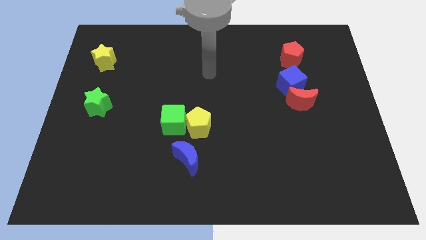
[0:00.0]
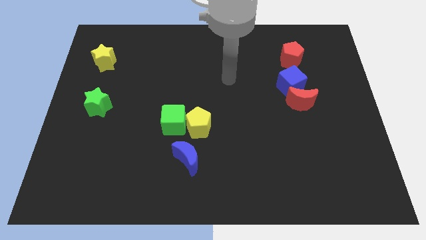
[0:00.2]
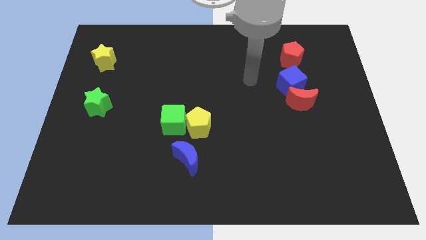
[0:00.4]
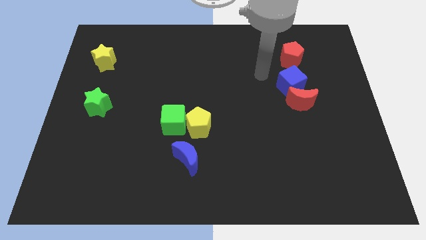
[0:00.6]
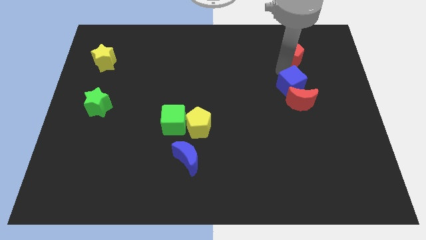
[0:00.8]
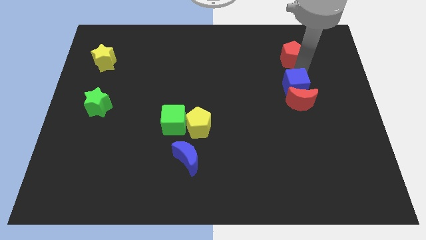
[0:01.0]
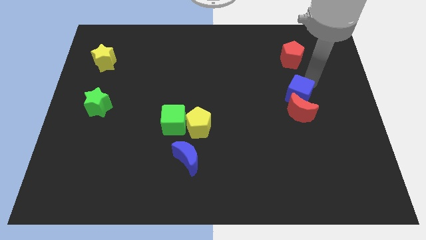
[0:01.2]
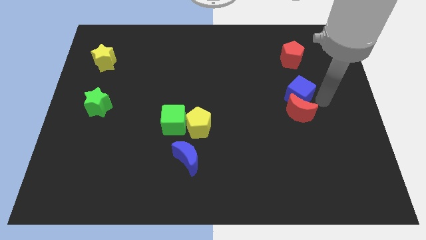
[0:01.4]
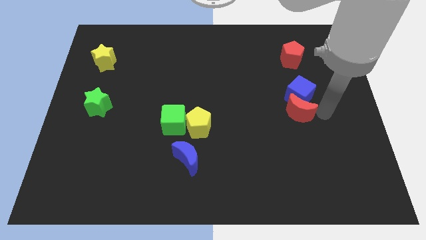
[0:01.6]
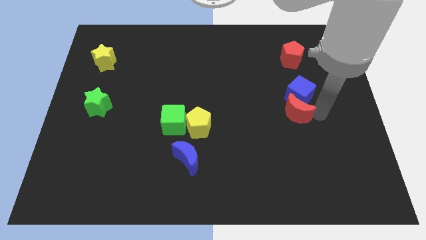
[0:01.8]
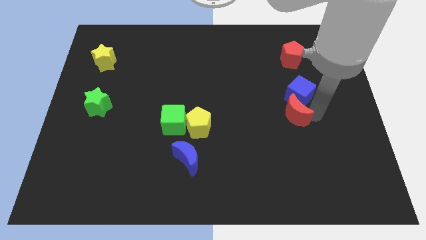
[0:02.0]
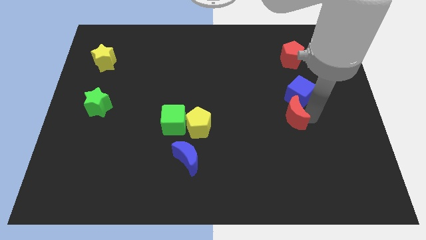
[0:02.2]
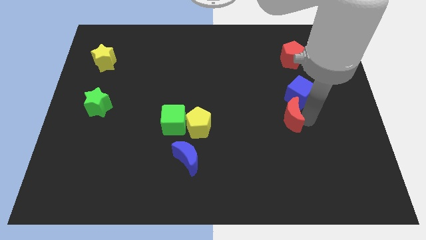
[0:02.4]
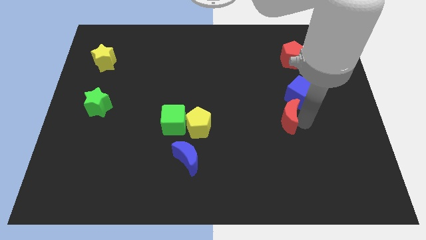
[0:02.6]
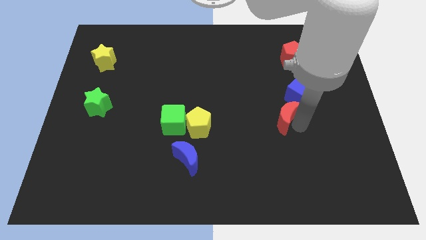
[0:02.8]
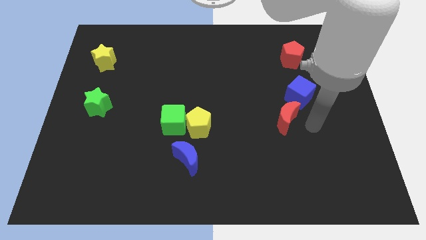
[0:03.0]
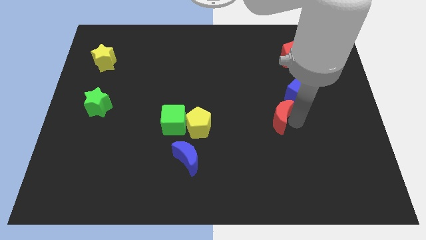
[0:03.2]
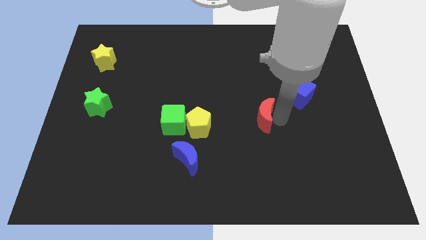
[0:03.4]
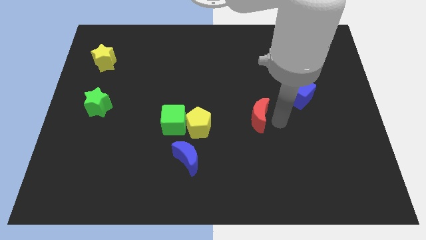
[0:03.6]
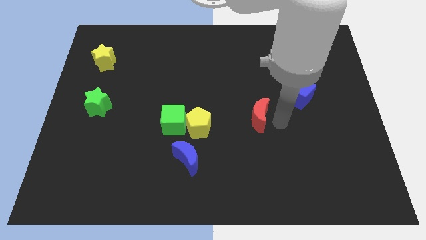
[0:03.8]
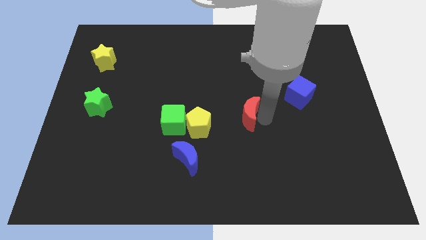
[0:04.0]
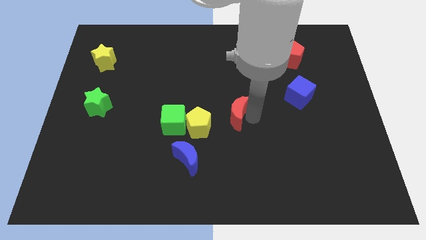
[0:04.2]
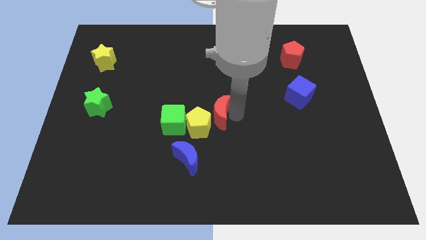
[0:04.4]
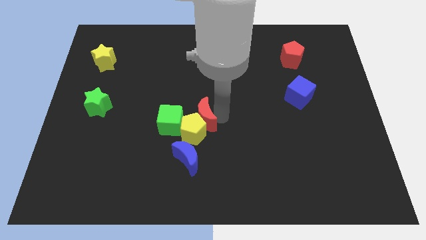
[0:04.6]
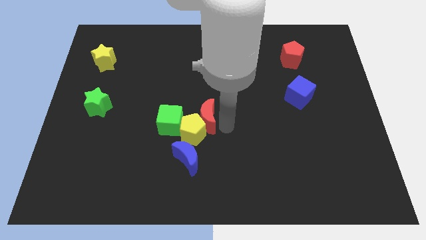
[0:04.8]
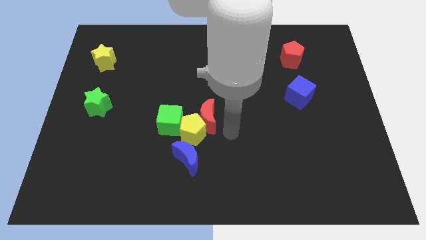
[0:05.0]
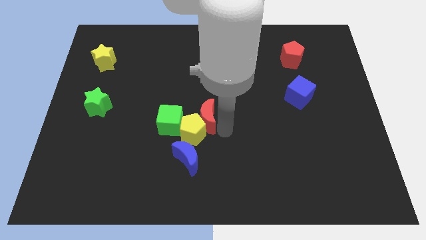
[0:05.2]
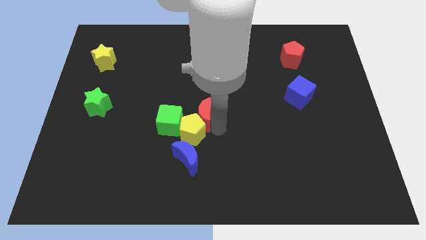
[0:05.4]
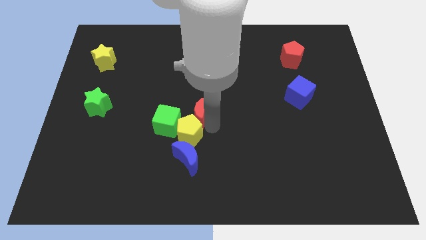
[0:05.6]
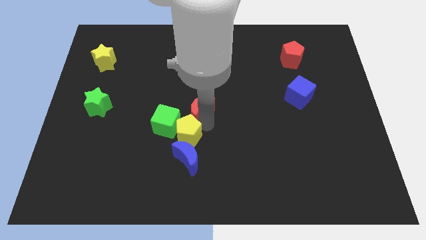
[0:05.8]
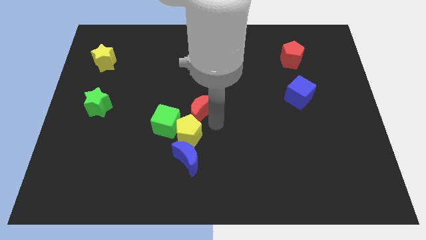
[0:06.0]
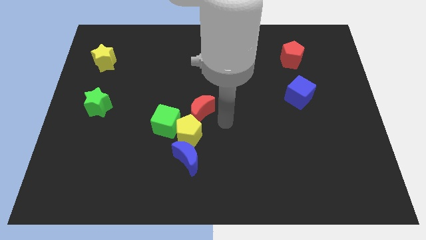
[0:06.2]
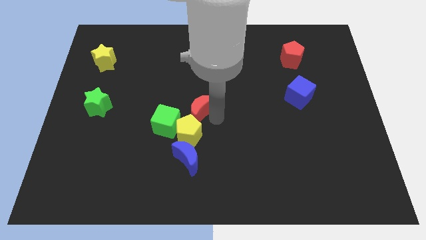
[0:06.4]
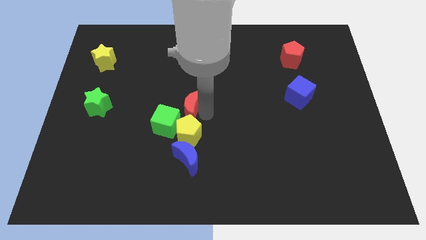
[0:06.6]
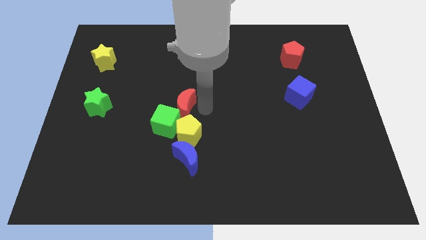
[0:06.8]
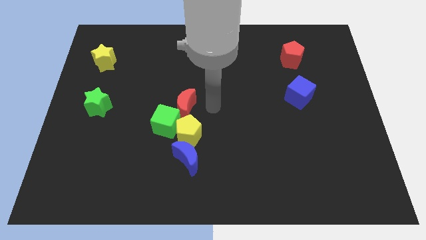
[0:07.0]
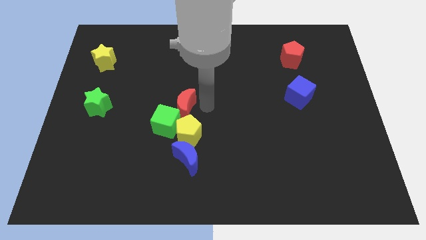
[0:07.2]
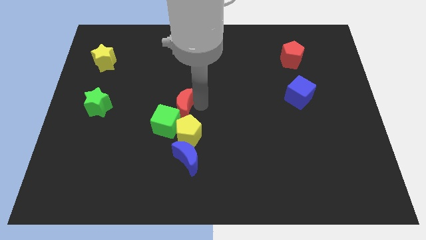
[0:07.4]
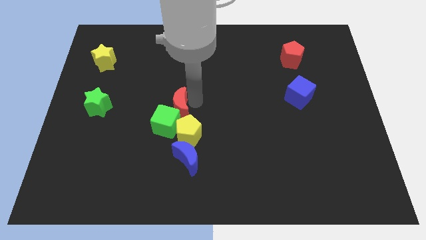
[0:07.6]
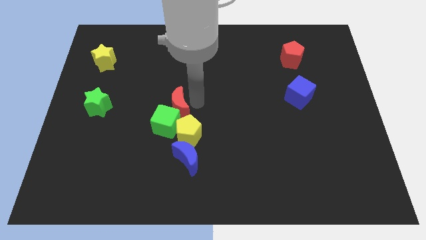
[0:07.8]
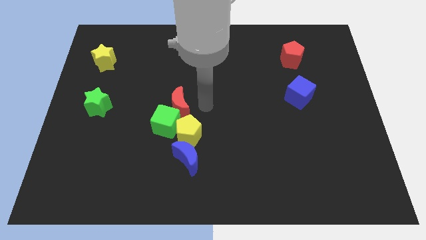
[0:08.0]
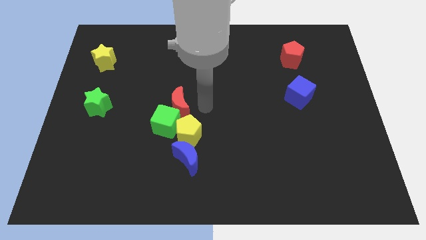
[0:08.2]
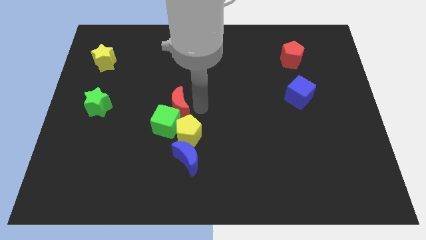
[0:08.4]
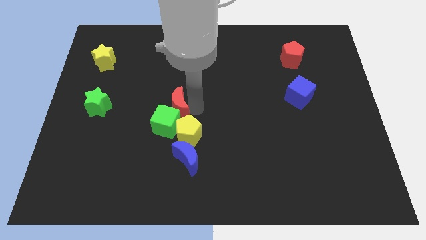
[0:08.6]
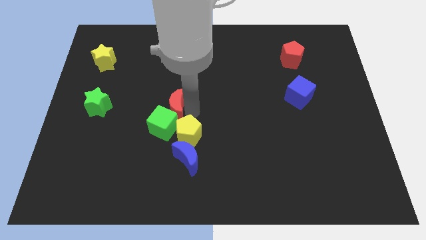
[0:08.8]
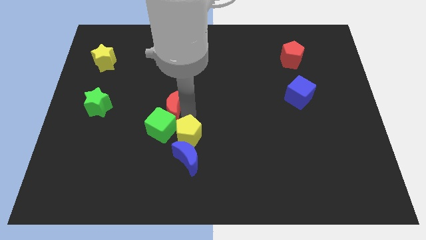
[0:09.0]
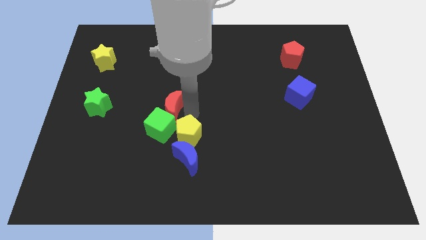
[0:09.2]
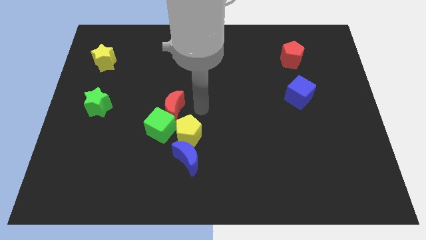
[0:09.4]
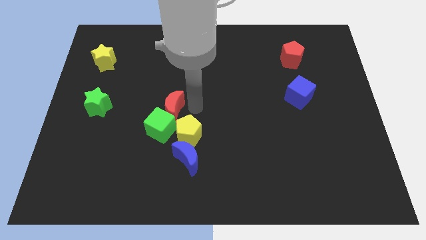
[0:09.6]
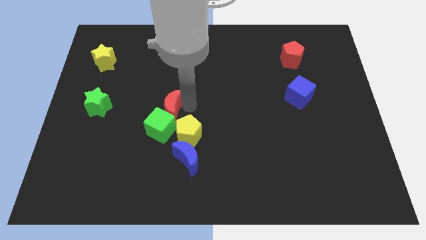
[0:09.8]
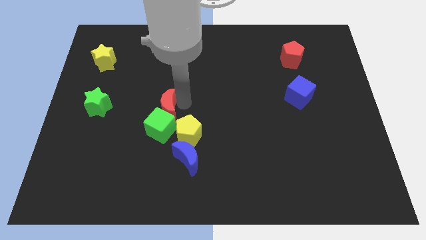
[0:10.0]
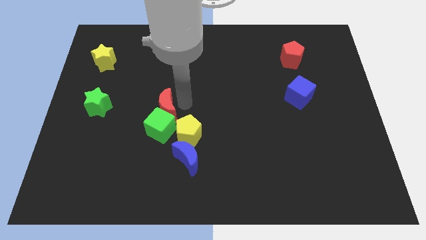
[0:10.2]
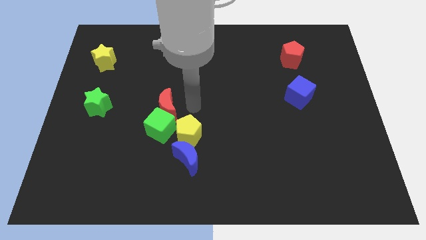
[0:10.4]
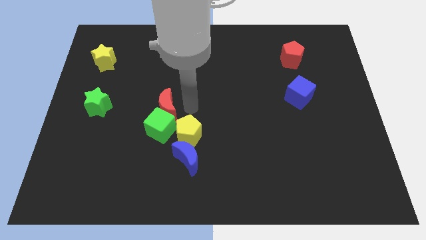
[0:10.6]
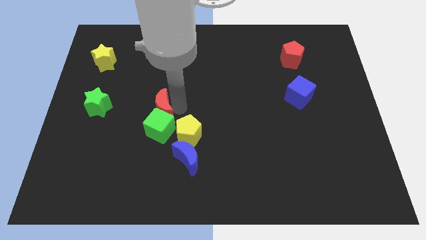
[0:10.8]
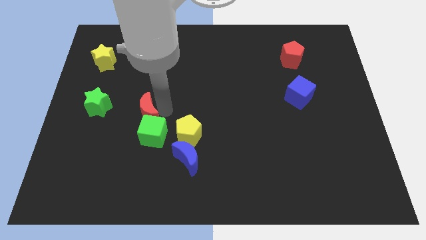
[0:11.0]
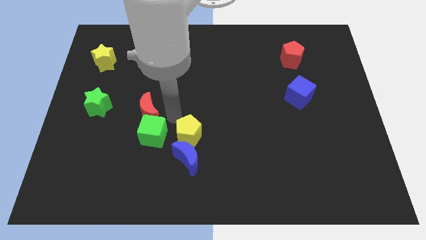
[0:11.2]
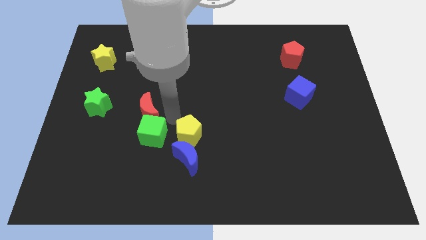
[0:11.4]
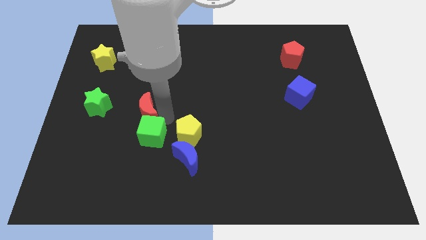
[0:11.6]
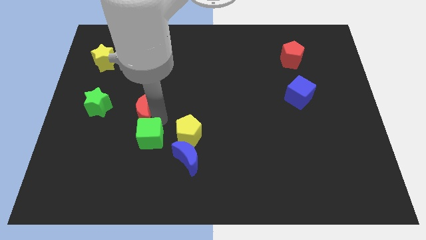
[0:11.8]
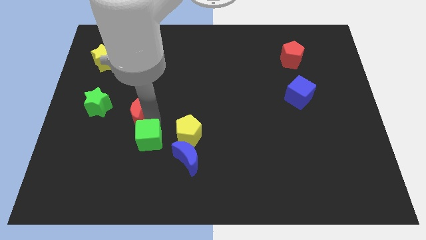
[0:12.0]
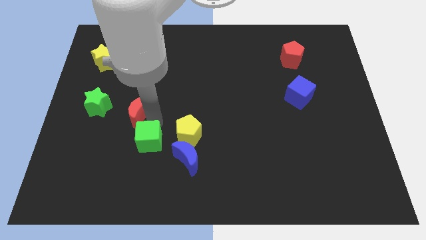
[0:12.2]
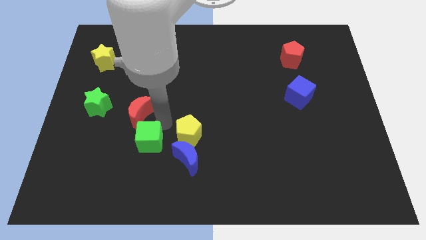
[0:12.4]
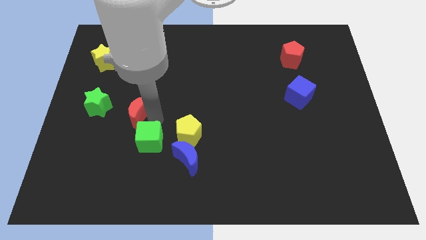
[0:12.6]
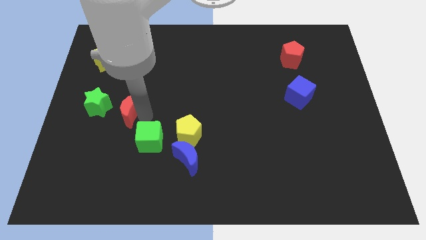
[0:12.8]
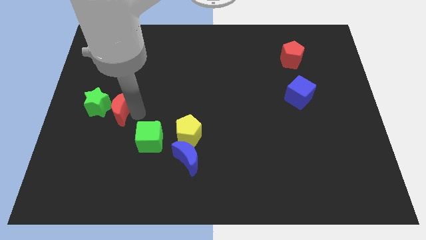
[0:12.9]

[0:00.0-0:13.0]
move the red moon towards the green star

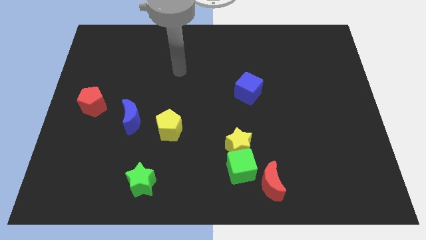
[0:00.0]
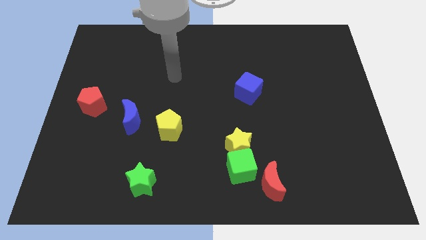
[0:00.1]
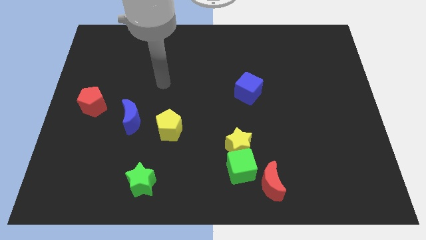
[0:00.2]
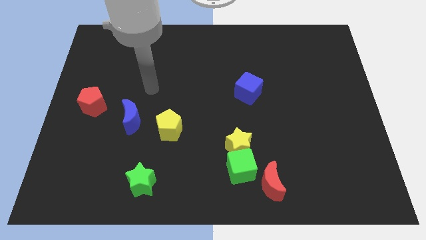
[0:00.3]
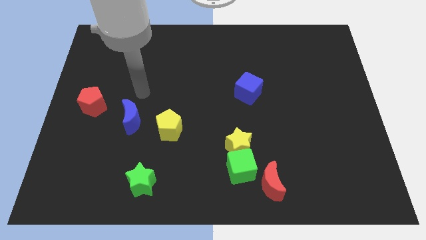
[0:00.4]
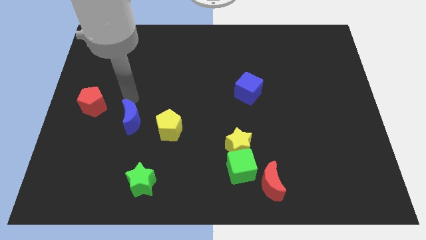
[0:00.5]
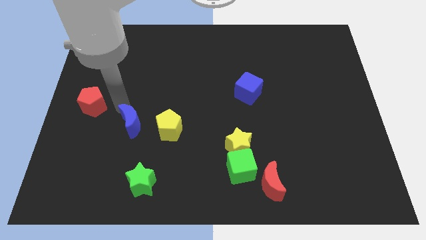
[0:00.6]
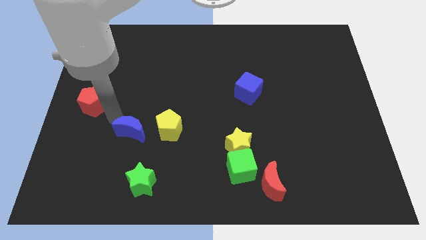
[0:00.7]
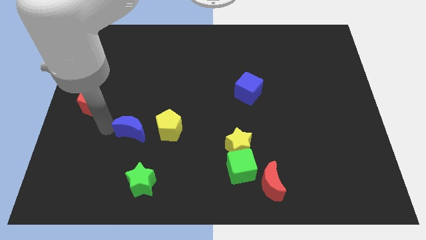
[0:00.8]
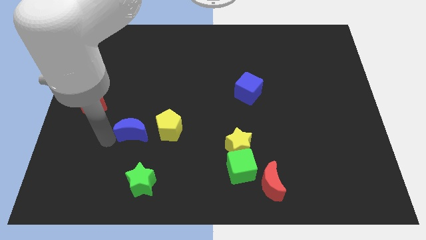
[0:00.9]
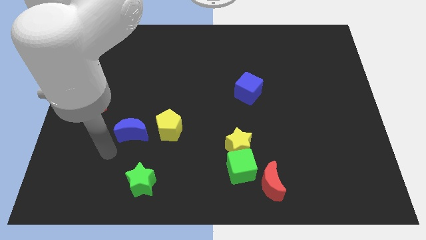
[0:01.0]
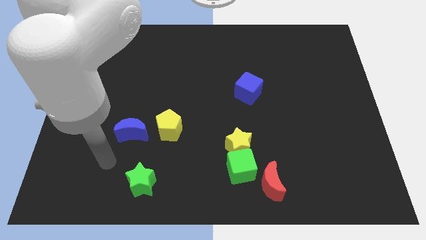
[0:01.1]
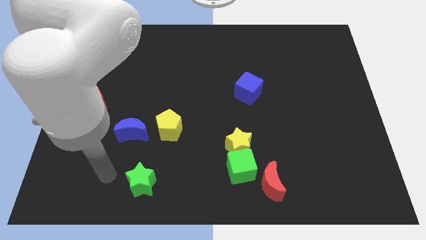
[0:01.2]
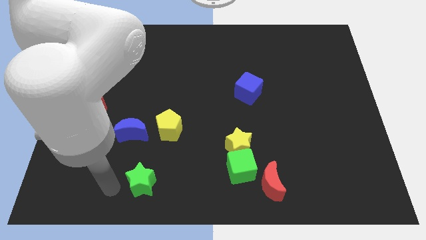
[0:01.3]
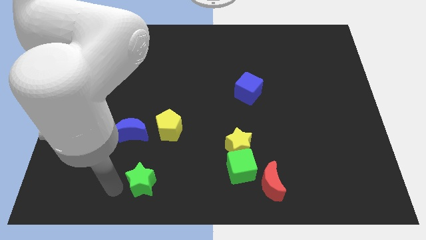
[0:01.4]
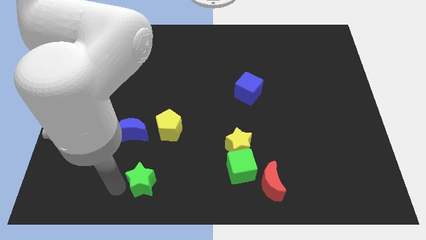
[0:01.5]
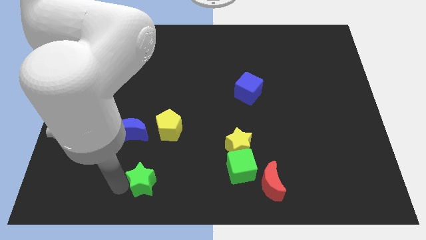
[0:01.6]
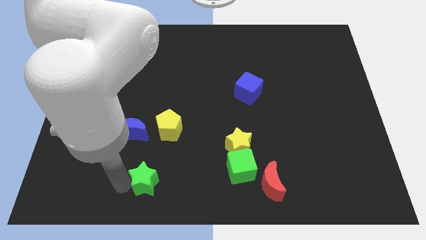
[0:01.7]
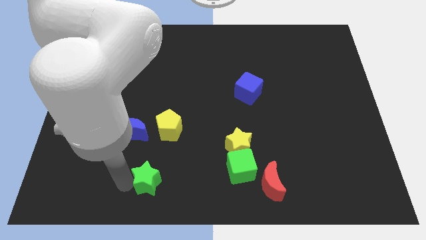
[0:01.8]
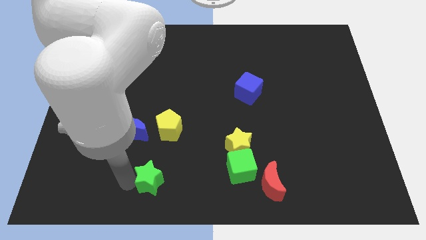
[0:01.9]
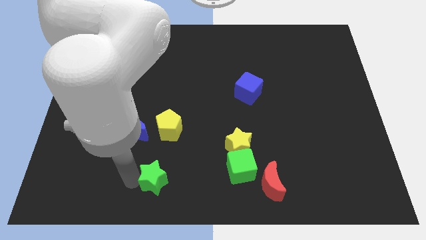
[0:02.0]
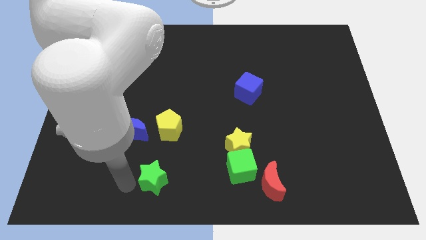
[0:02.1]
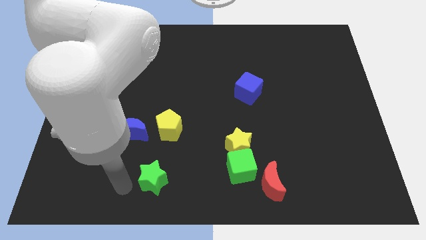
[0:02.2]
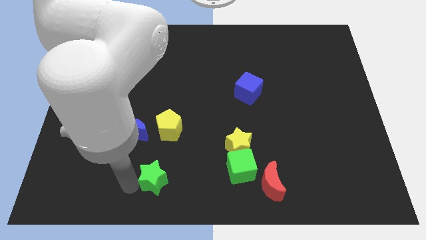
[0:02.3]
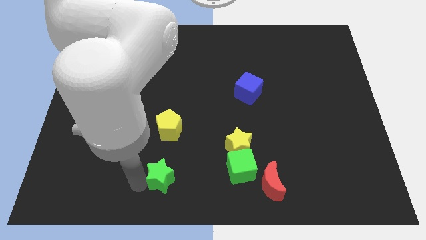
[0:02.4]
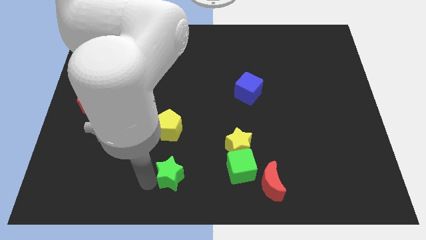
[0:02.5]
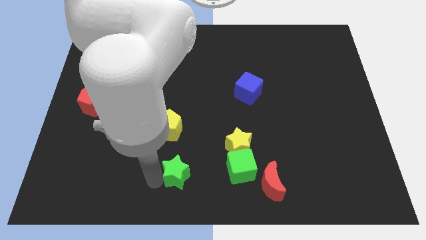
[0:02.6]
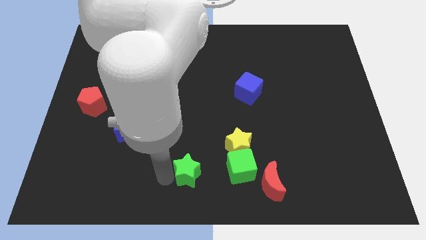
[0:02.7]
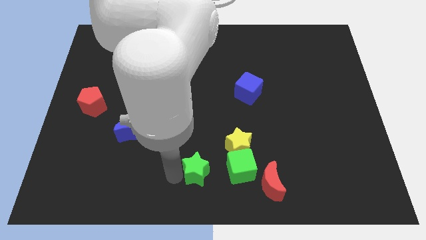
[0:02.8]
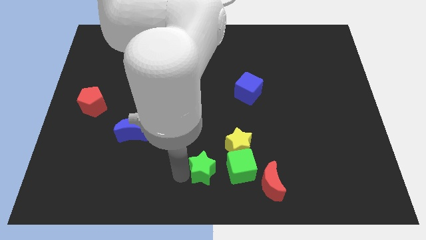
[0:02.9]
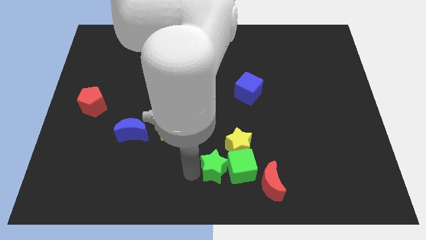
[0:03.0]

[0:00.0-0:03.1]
put the green star close to the green cube
